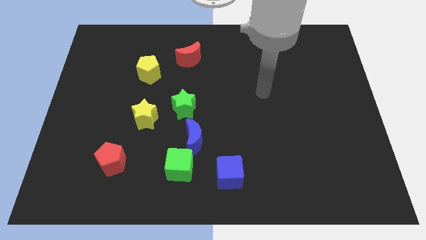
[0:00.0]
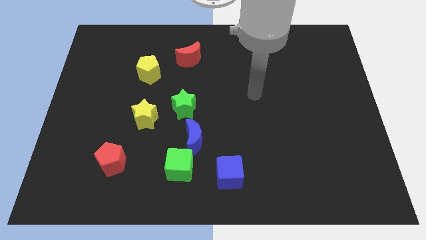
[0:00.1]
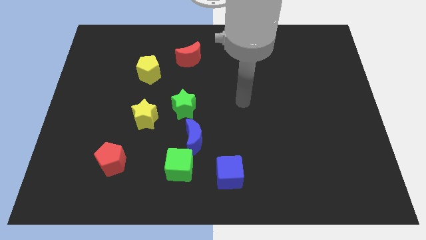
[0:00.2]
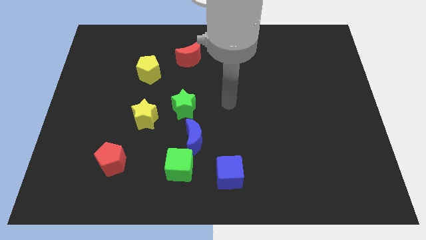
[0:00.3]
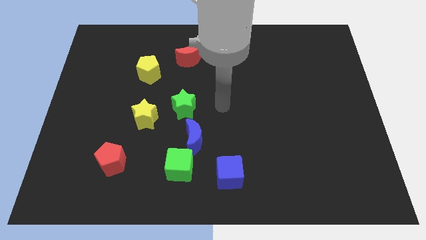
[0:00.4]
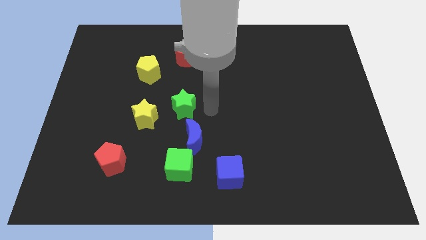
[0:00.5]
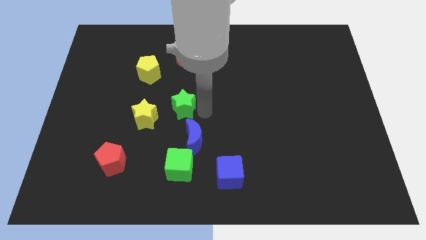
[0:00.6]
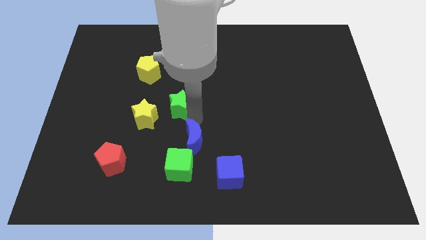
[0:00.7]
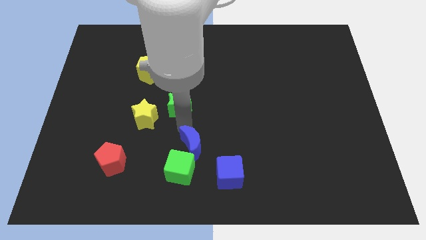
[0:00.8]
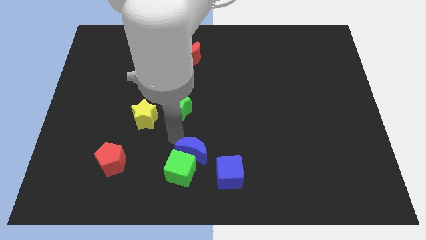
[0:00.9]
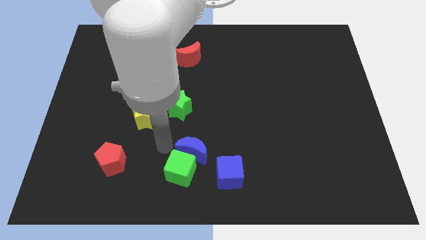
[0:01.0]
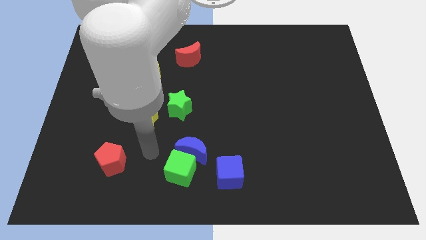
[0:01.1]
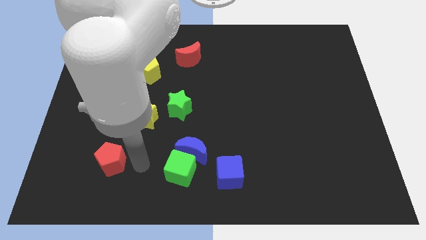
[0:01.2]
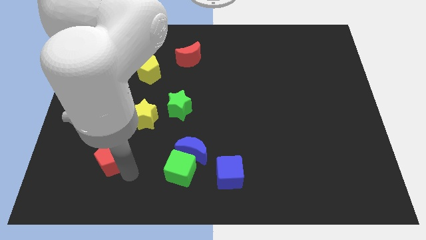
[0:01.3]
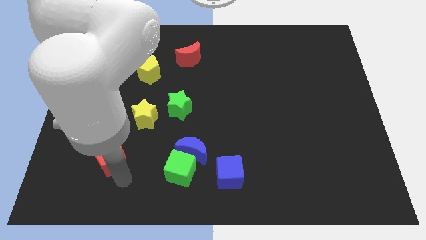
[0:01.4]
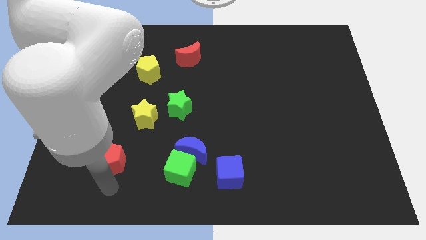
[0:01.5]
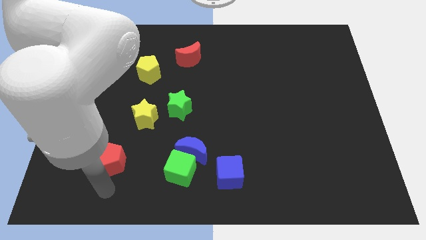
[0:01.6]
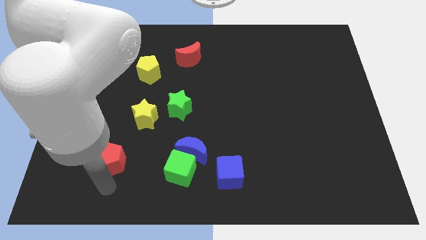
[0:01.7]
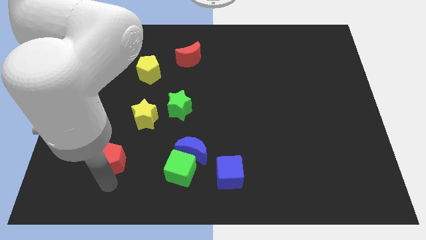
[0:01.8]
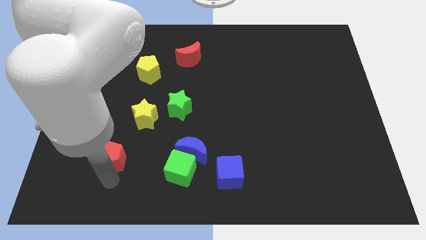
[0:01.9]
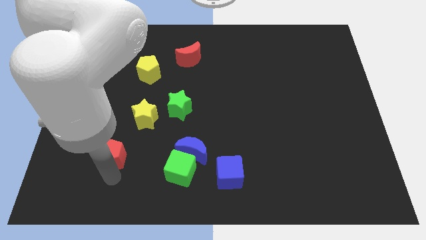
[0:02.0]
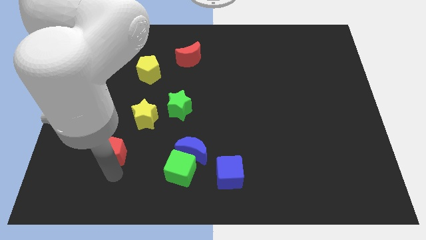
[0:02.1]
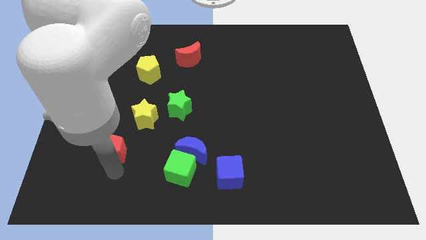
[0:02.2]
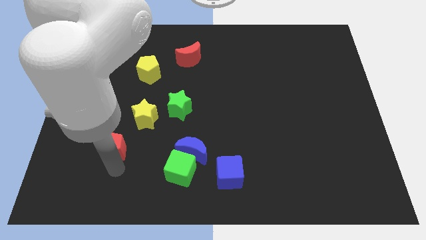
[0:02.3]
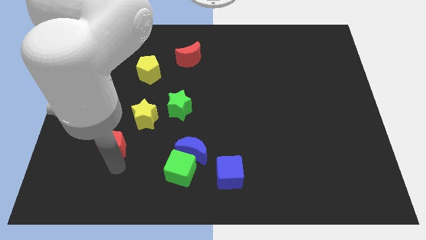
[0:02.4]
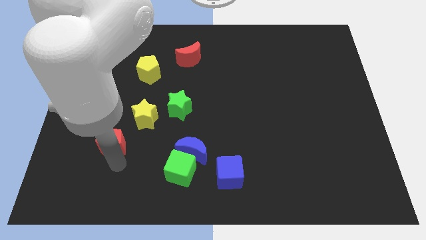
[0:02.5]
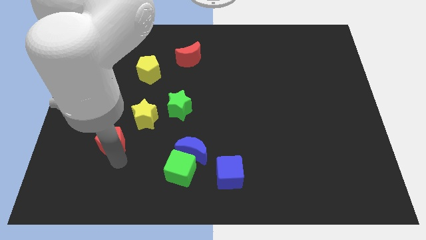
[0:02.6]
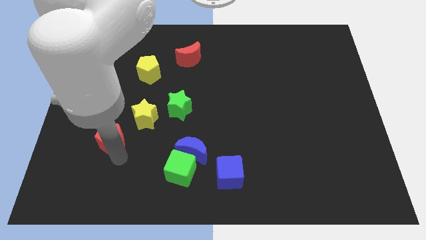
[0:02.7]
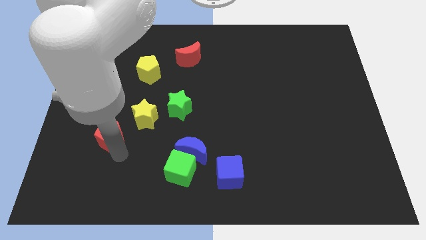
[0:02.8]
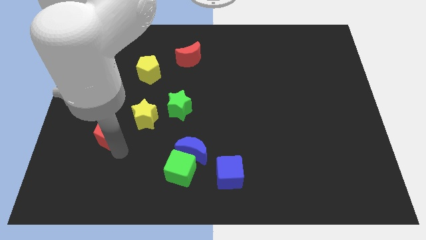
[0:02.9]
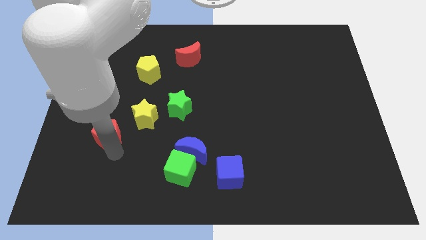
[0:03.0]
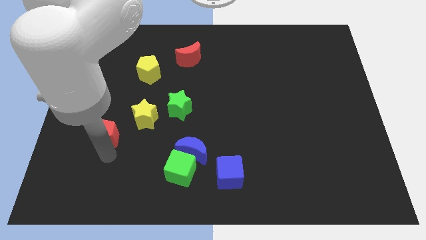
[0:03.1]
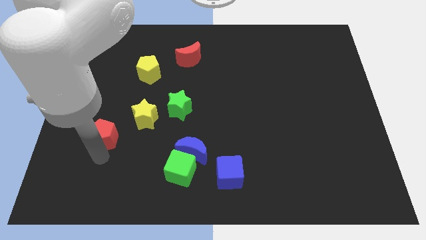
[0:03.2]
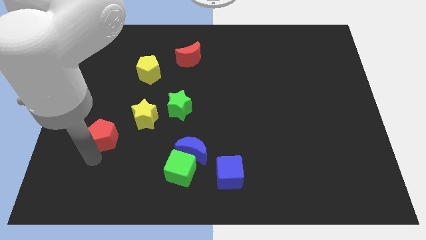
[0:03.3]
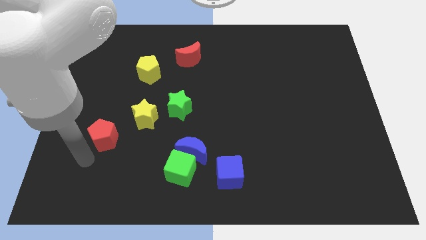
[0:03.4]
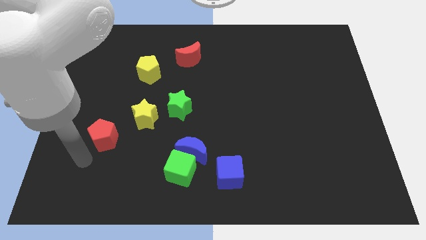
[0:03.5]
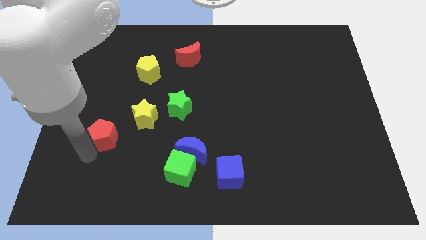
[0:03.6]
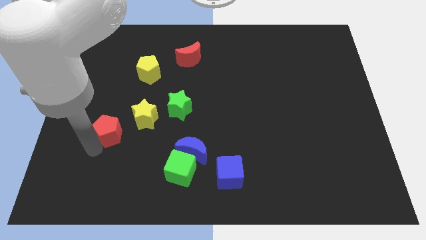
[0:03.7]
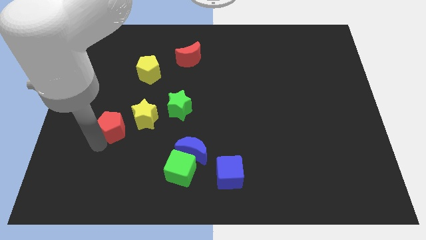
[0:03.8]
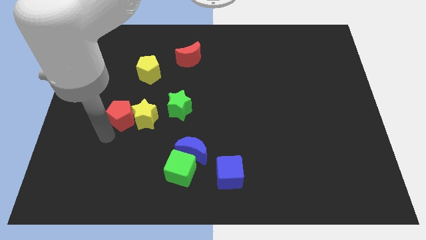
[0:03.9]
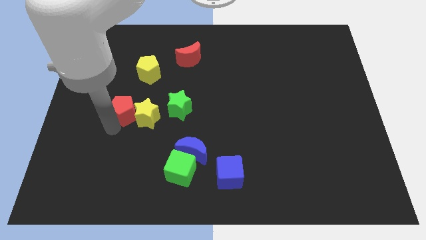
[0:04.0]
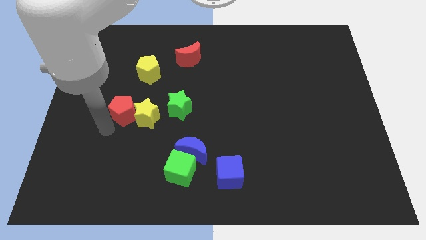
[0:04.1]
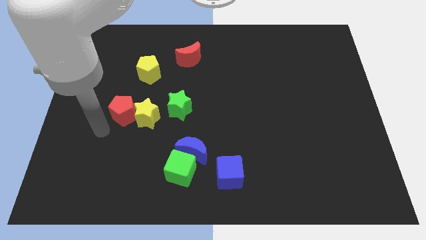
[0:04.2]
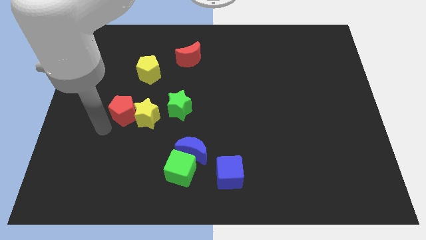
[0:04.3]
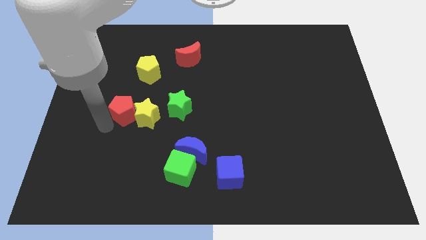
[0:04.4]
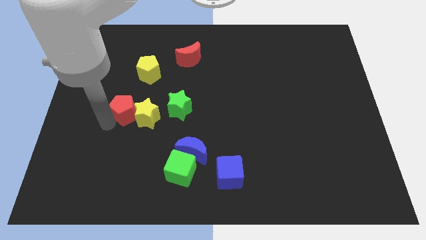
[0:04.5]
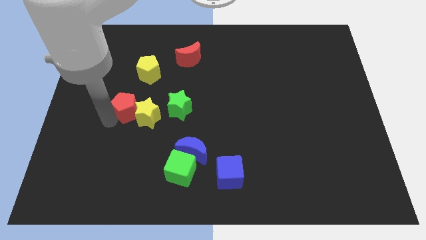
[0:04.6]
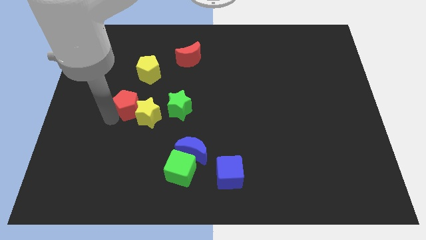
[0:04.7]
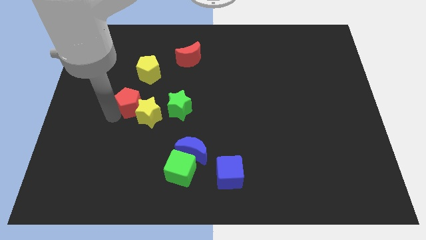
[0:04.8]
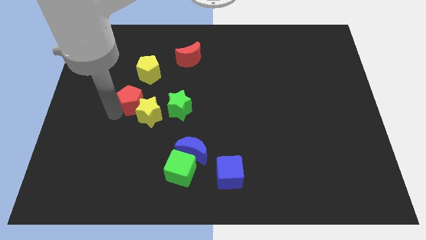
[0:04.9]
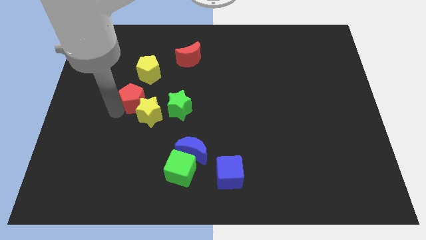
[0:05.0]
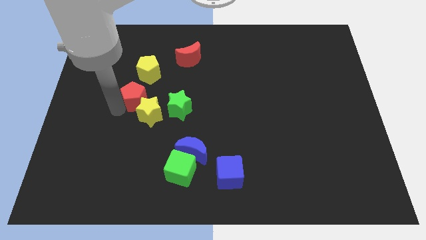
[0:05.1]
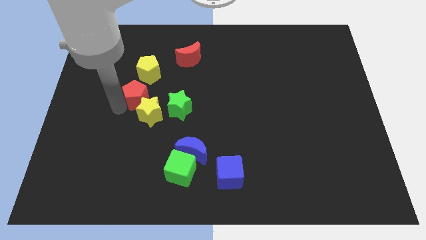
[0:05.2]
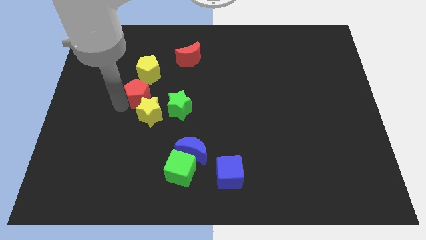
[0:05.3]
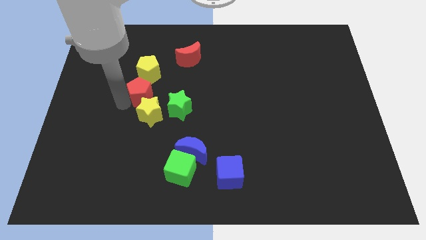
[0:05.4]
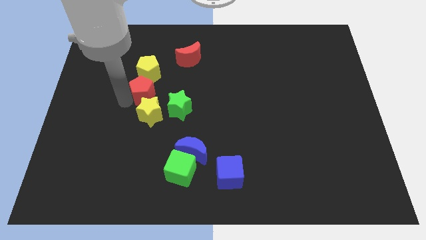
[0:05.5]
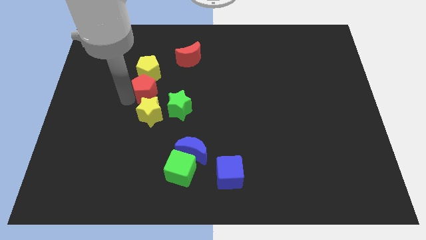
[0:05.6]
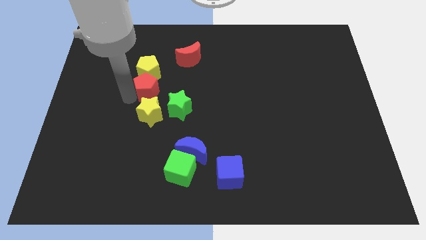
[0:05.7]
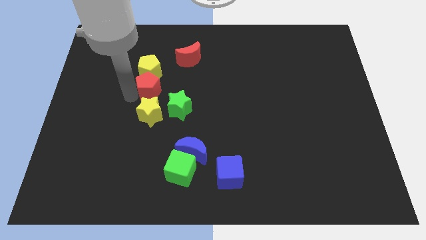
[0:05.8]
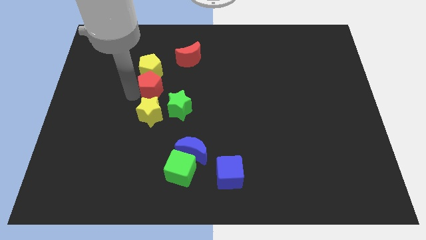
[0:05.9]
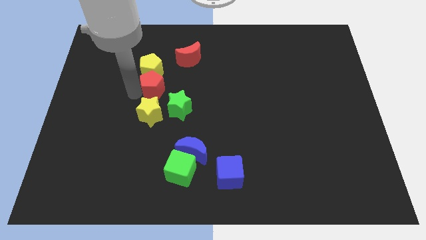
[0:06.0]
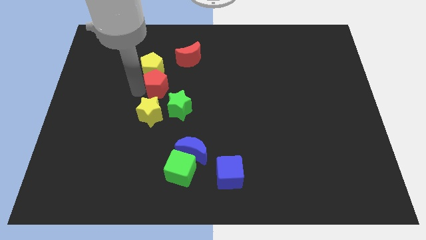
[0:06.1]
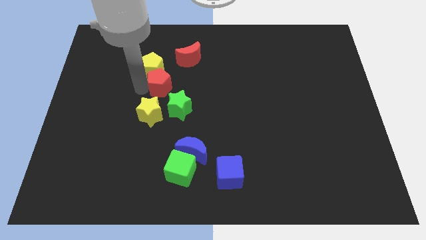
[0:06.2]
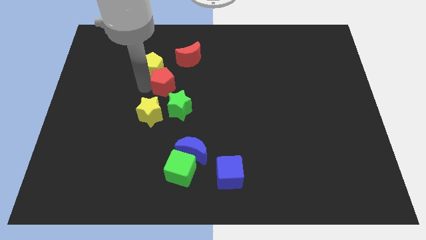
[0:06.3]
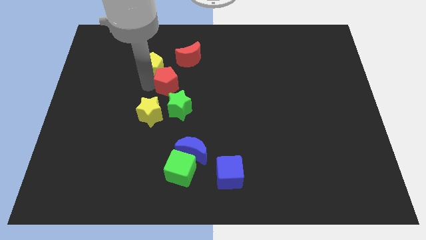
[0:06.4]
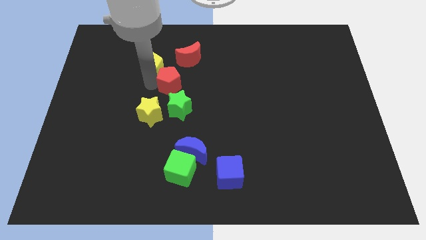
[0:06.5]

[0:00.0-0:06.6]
slide the red pentagon up and then right

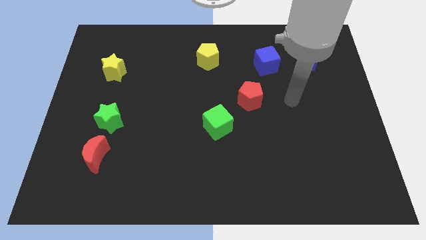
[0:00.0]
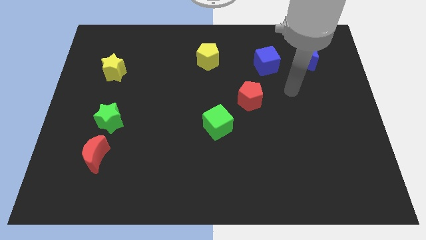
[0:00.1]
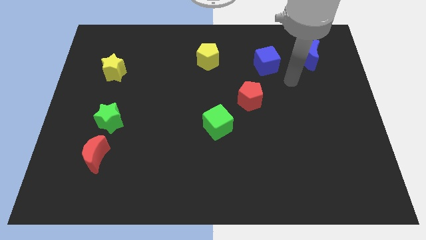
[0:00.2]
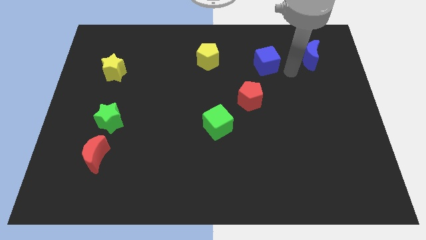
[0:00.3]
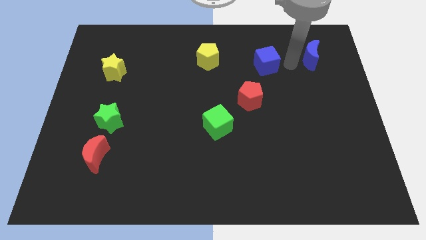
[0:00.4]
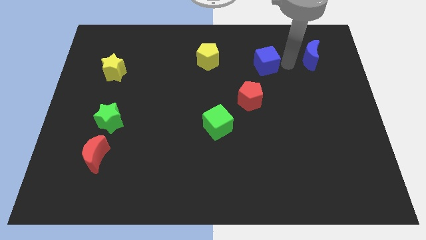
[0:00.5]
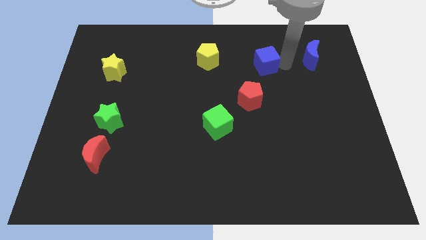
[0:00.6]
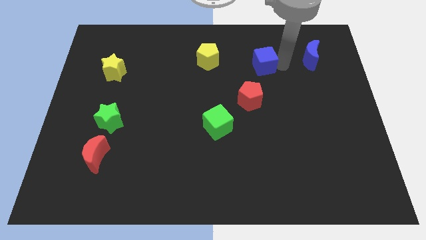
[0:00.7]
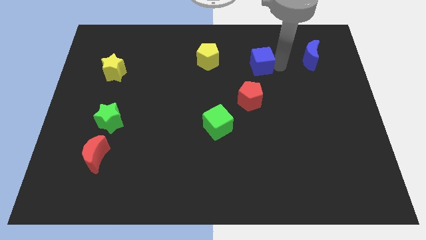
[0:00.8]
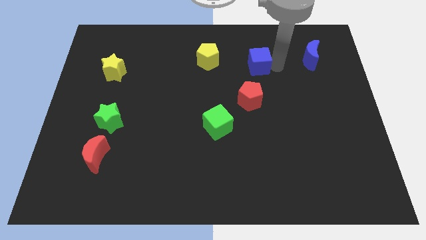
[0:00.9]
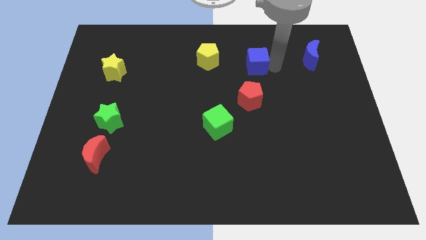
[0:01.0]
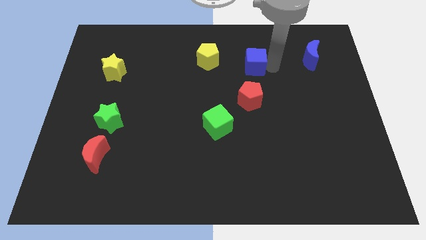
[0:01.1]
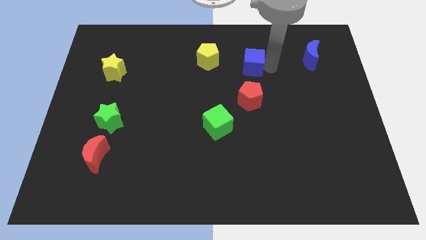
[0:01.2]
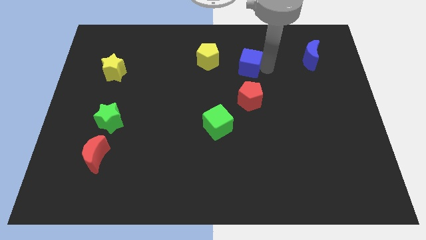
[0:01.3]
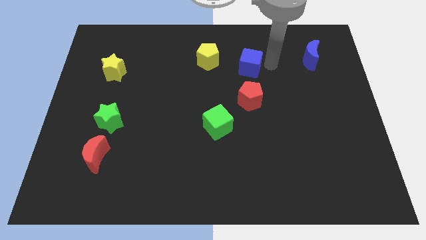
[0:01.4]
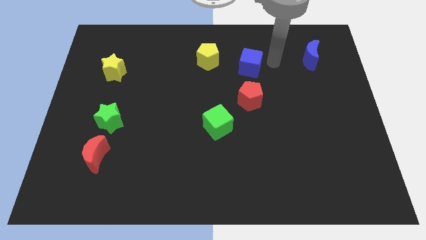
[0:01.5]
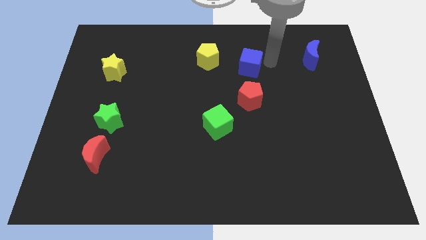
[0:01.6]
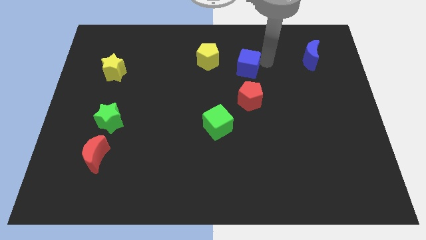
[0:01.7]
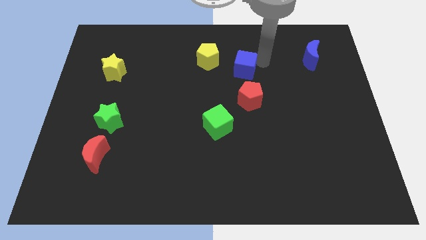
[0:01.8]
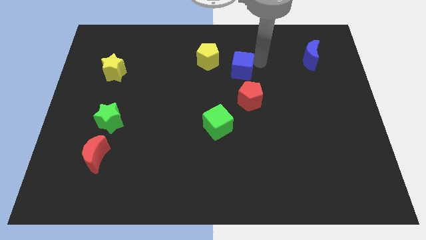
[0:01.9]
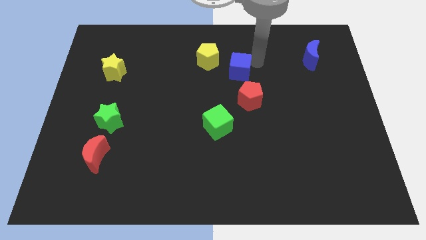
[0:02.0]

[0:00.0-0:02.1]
push the blue cube a little bit to the left
